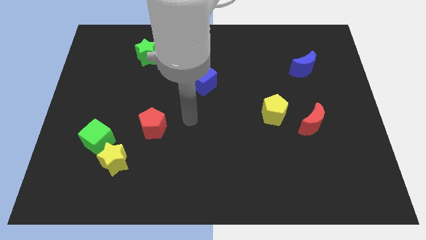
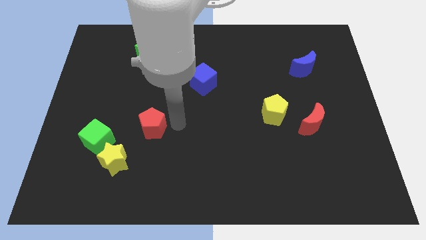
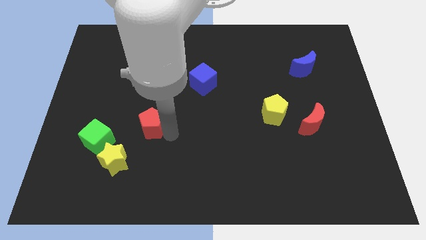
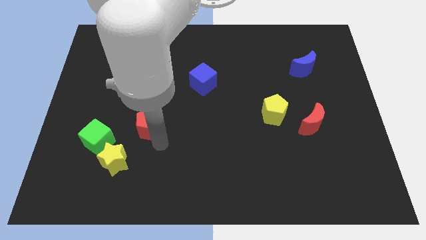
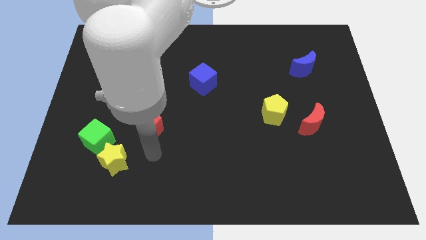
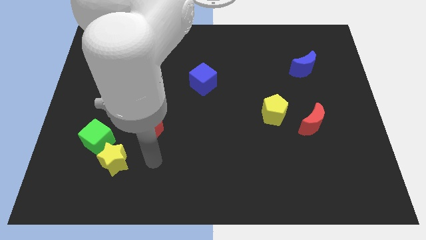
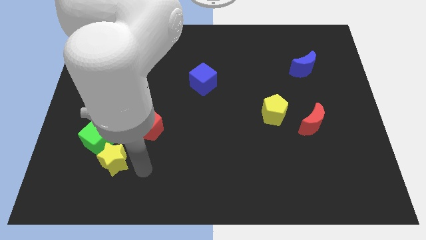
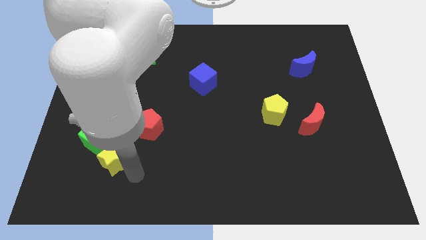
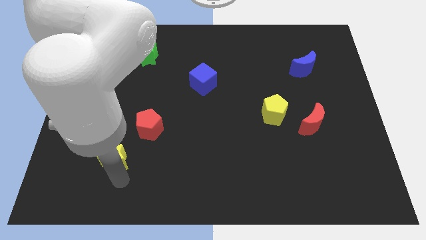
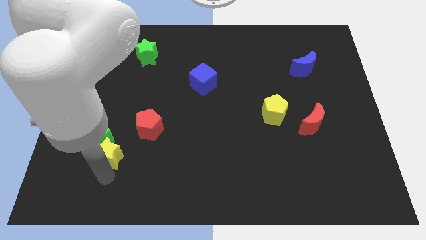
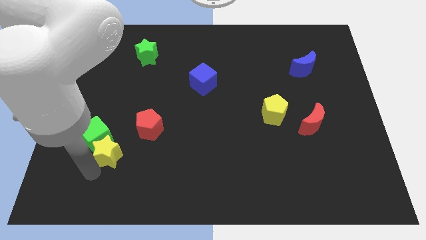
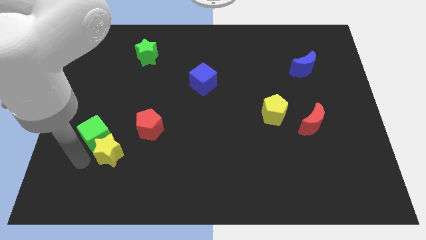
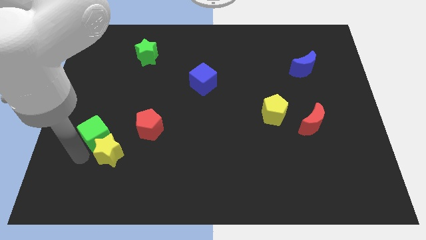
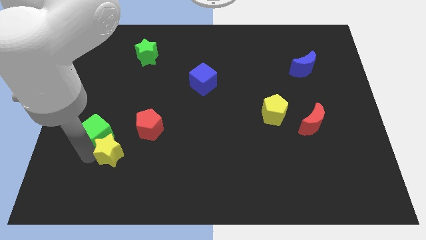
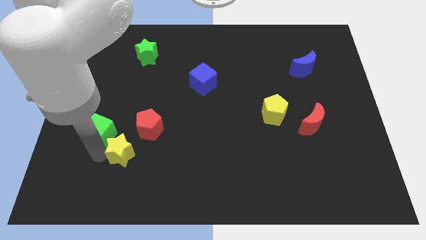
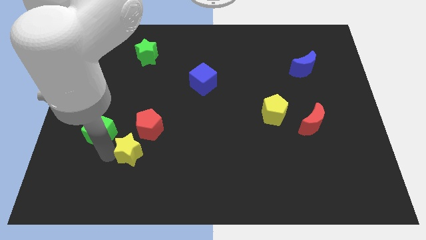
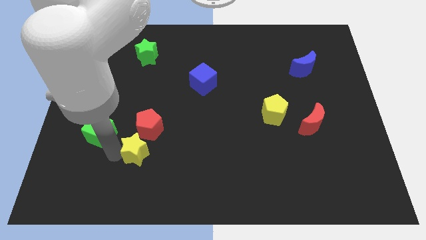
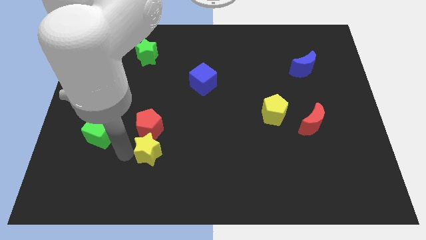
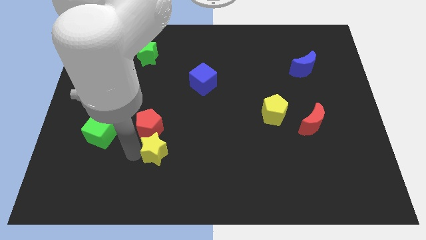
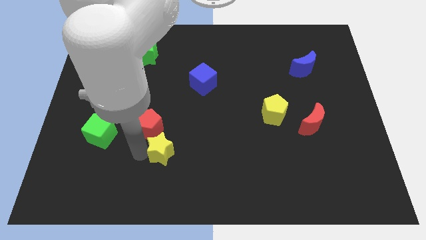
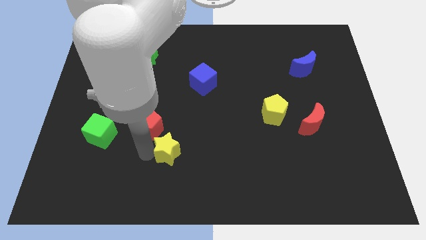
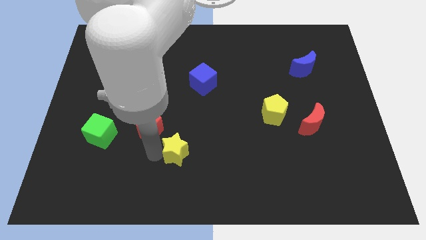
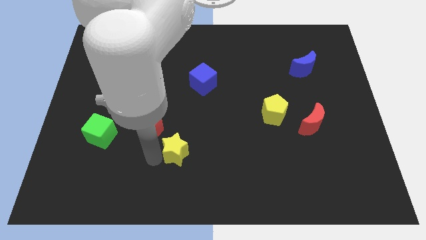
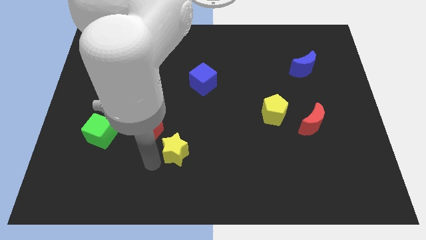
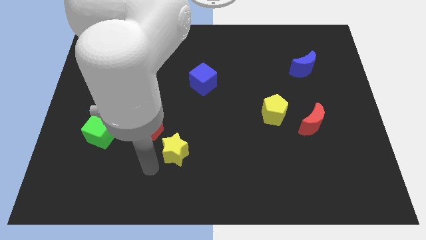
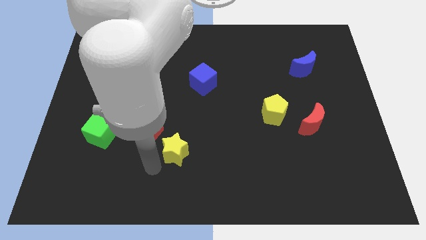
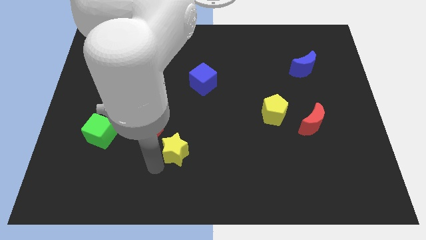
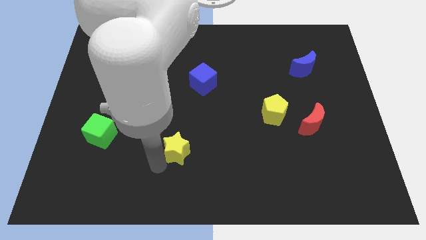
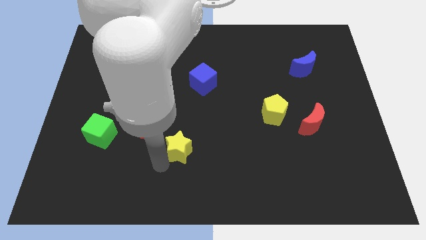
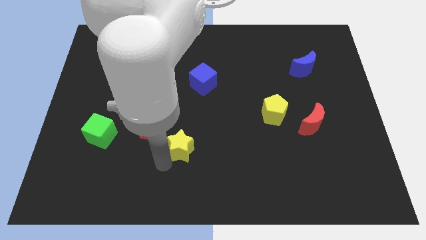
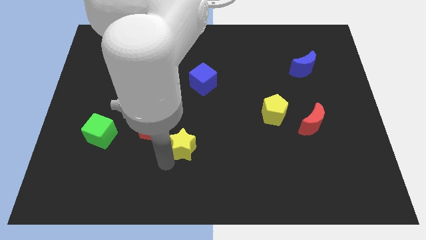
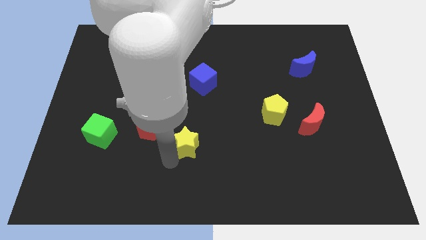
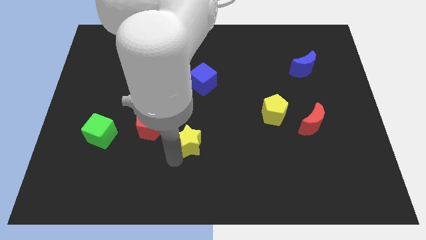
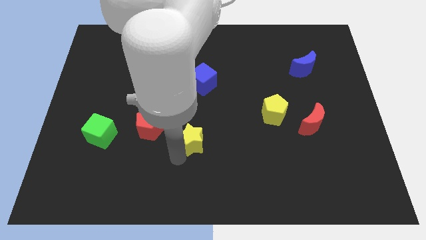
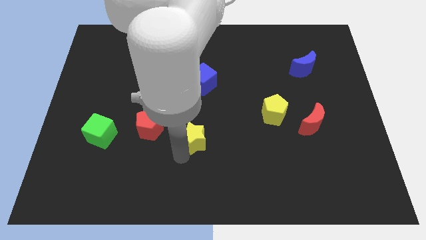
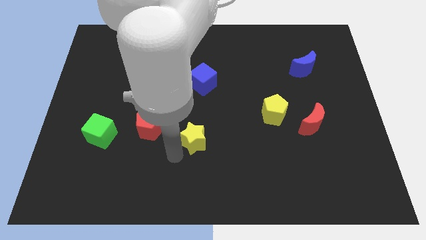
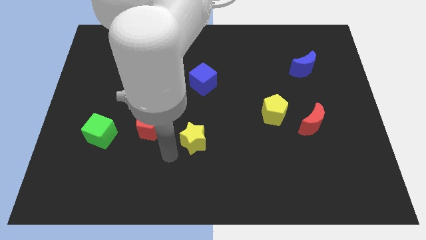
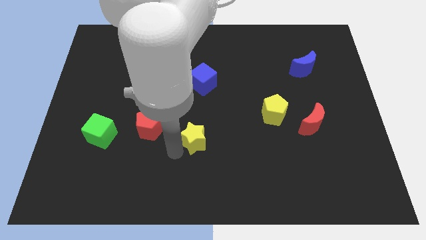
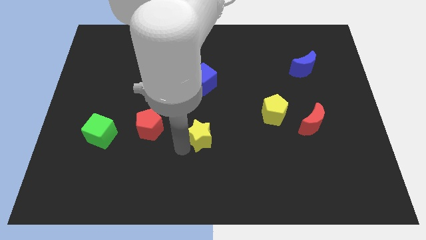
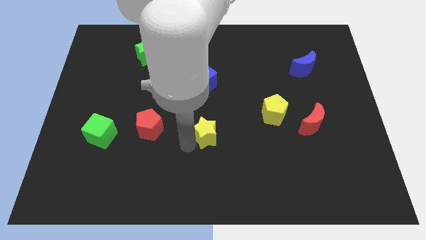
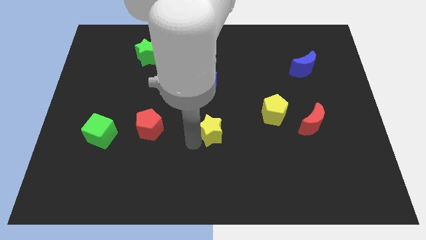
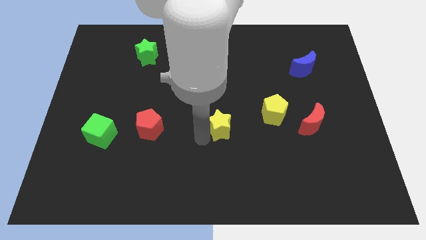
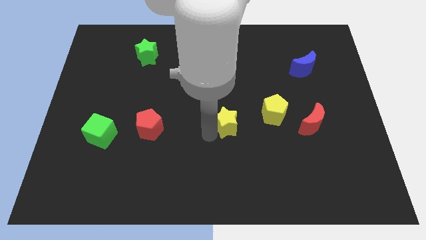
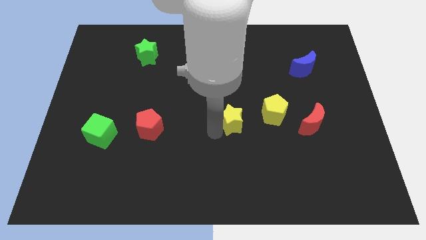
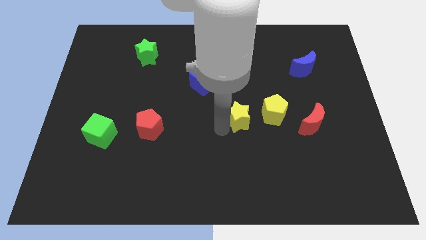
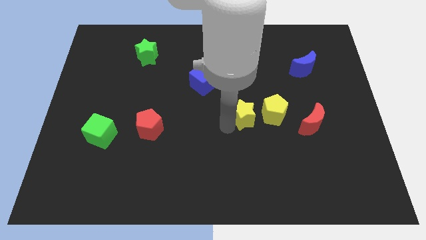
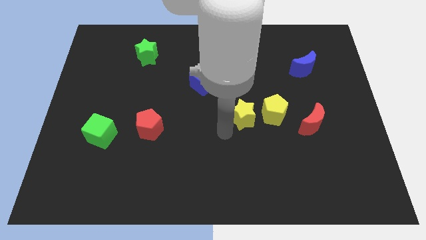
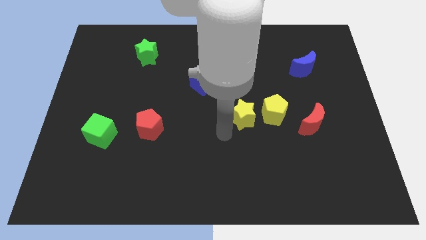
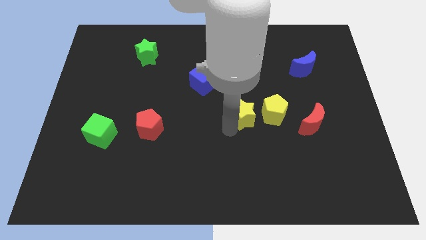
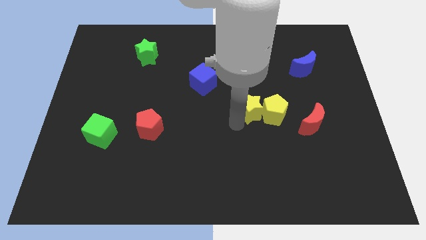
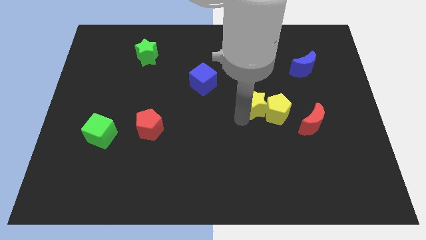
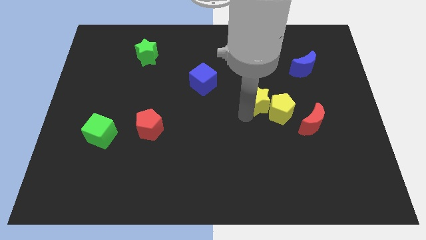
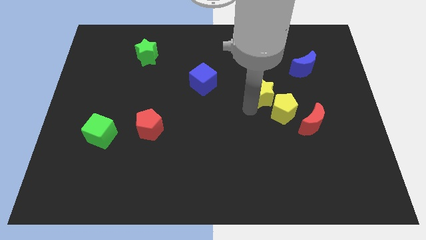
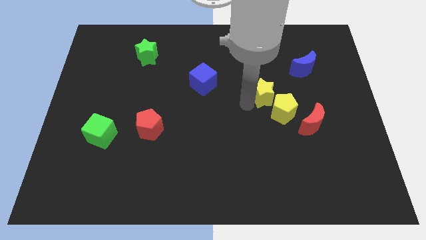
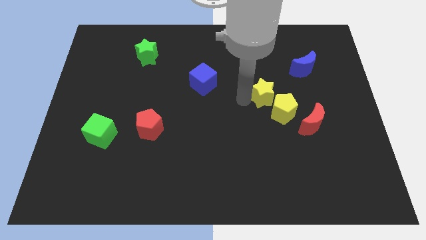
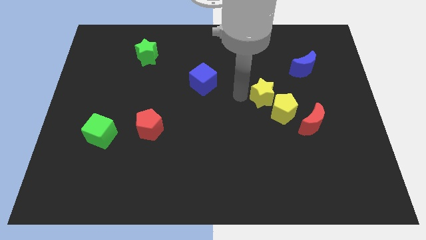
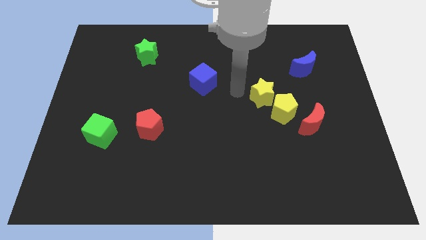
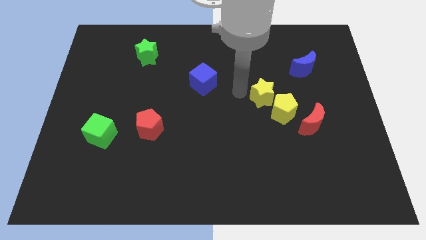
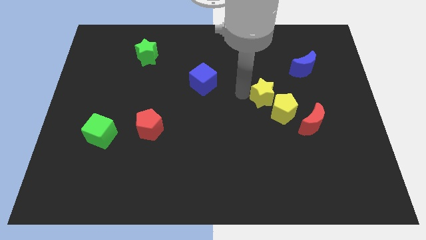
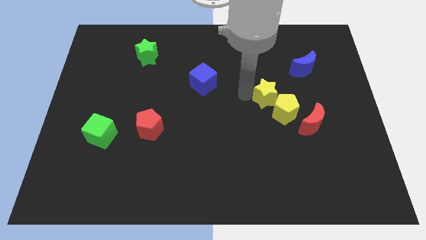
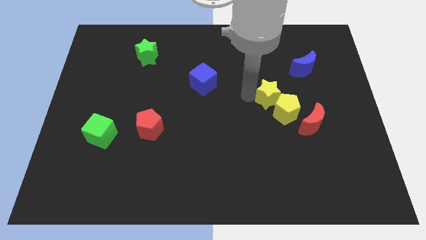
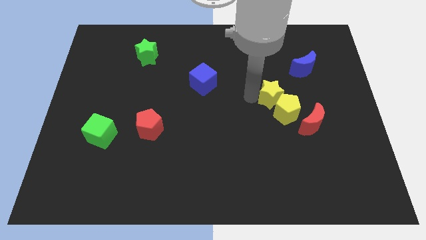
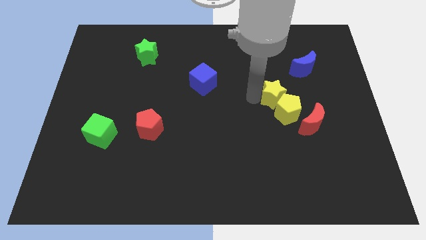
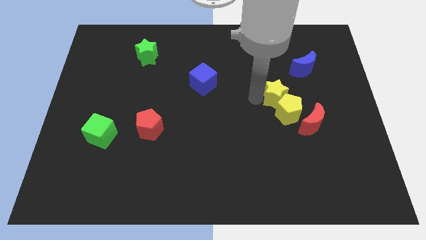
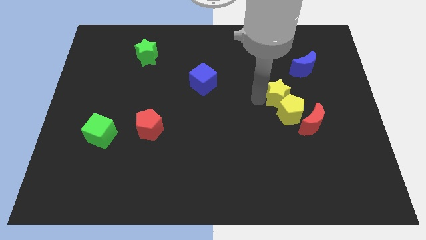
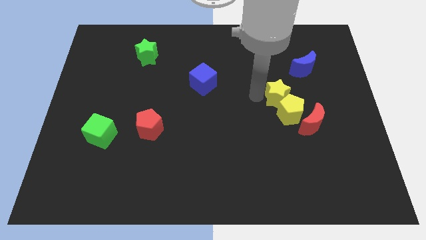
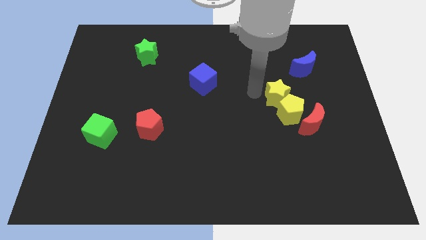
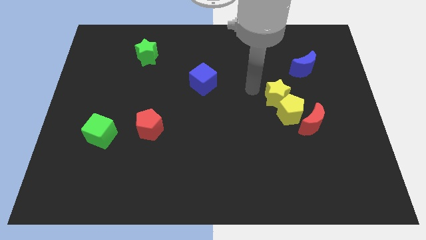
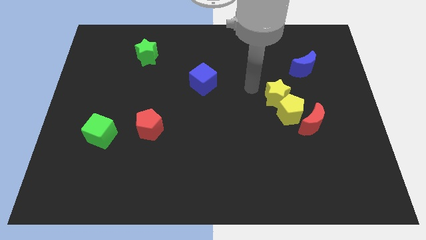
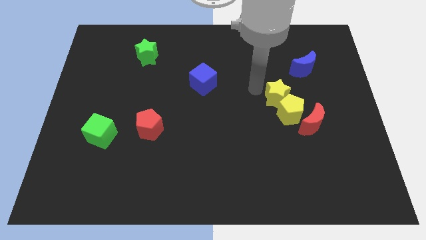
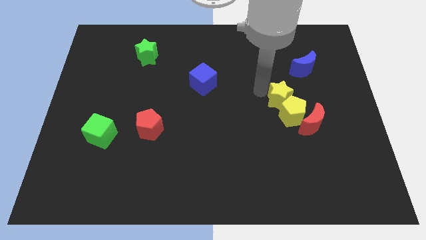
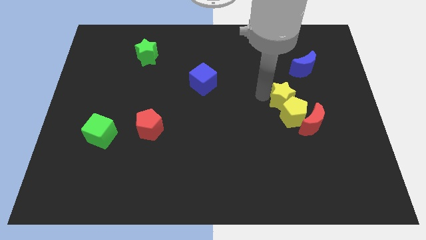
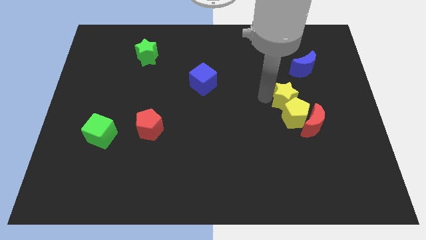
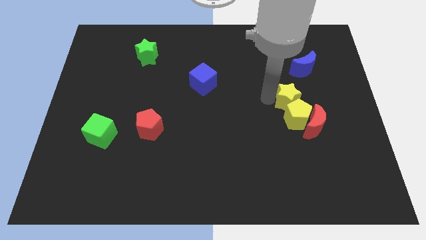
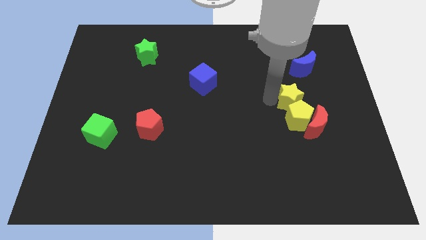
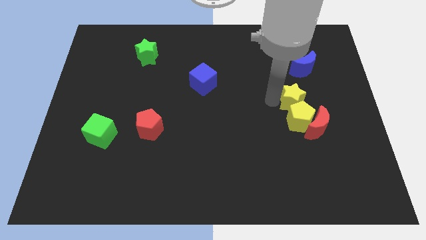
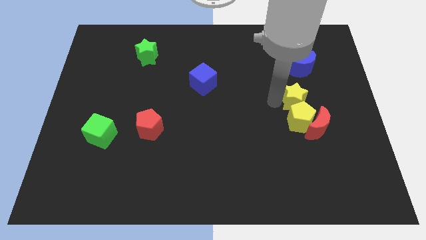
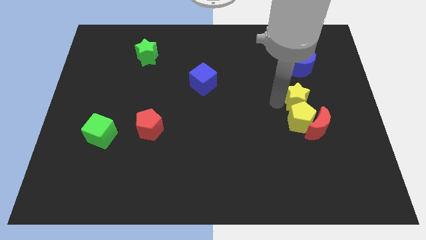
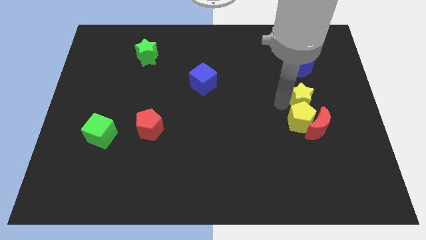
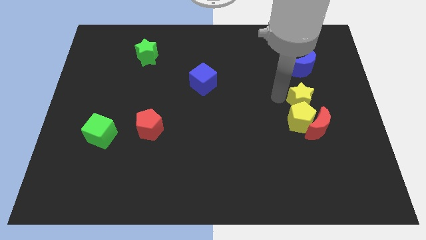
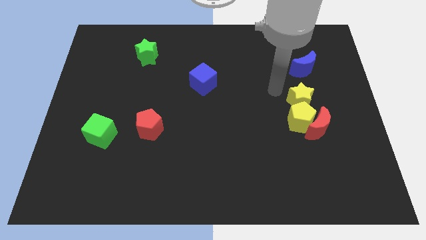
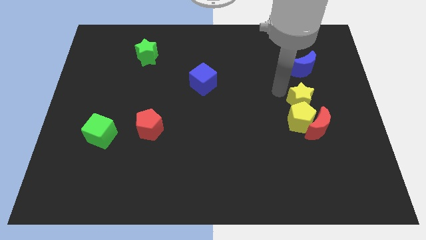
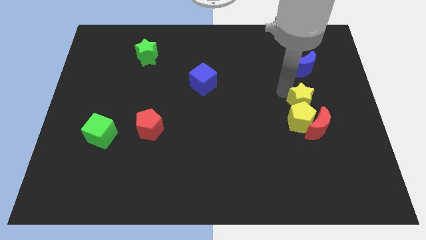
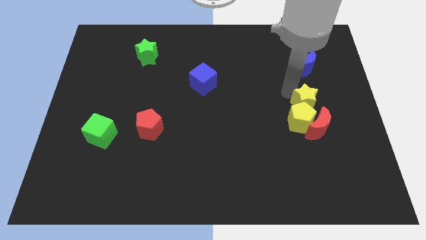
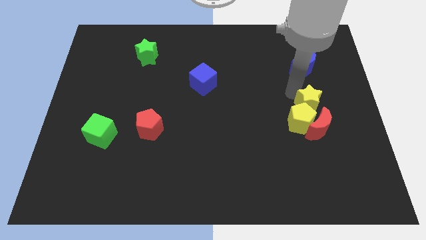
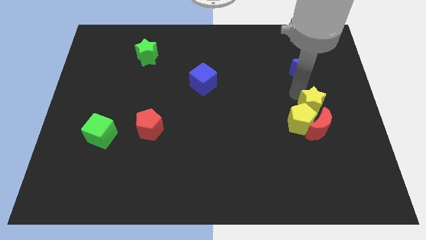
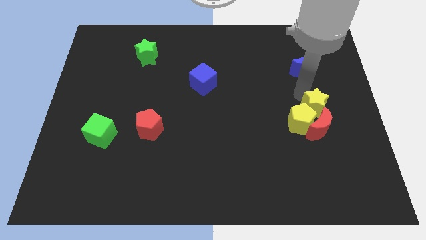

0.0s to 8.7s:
slide the yellow star right of the yellow pentagon
